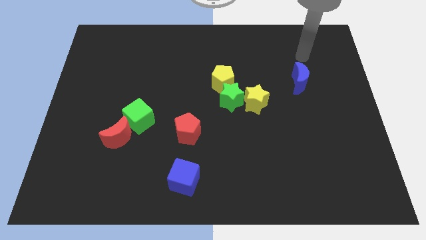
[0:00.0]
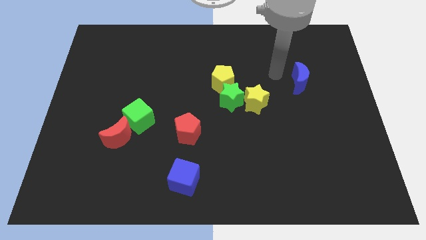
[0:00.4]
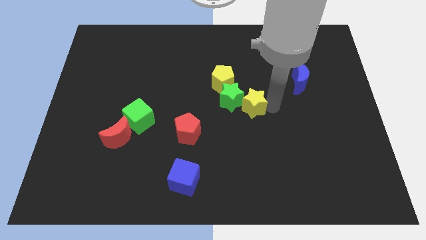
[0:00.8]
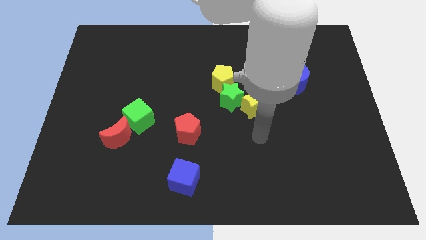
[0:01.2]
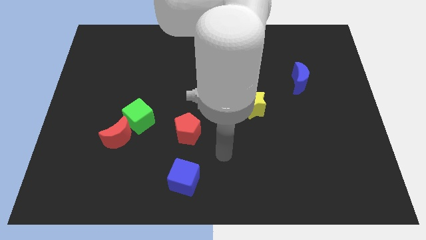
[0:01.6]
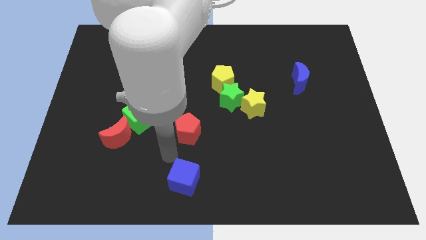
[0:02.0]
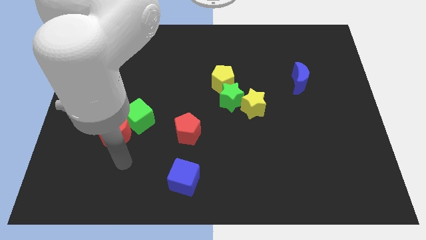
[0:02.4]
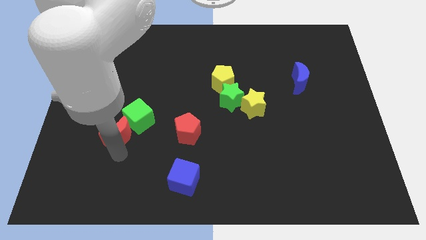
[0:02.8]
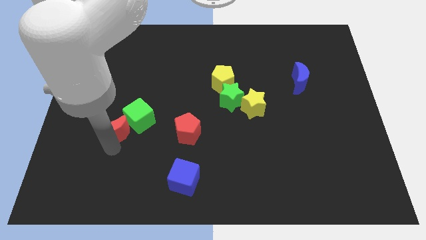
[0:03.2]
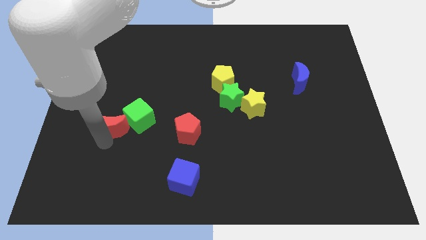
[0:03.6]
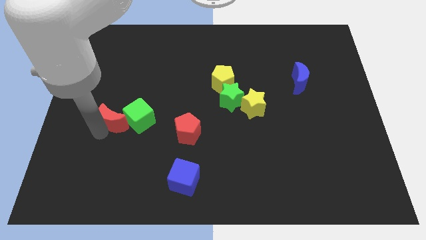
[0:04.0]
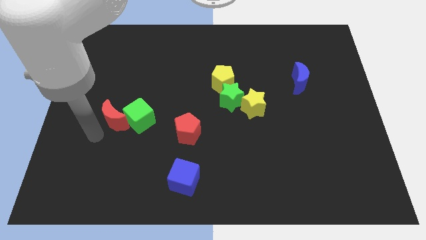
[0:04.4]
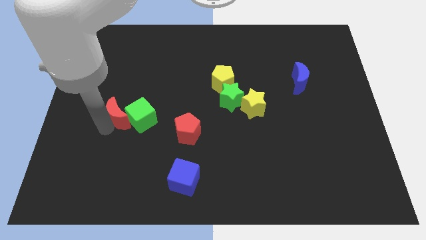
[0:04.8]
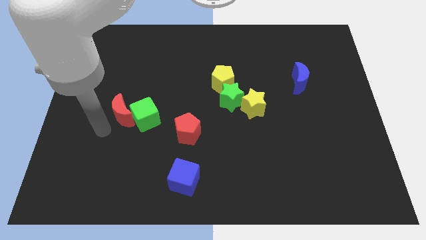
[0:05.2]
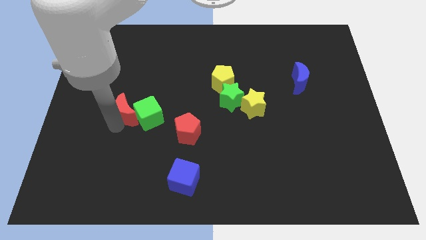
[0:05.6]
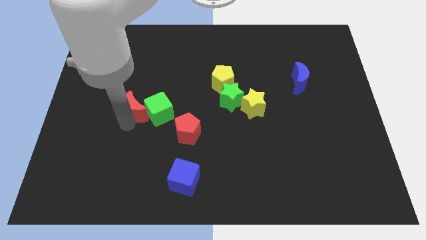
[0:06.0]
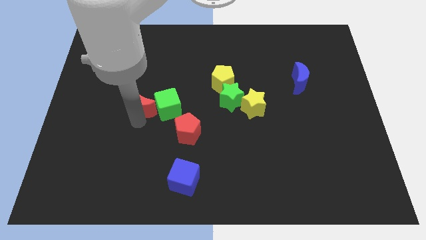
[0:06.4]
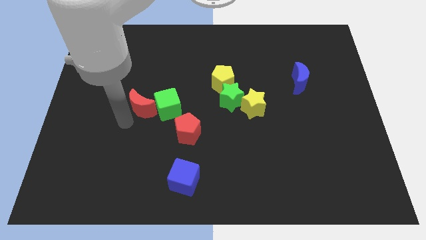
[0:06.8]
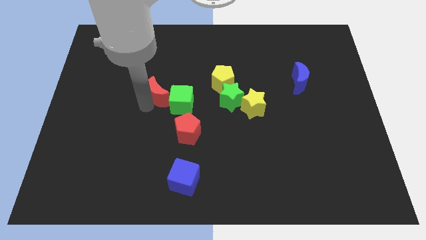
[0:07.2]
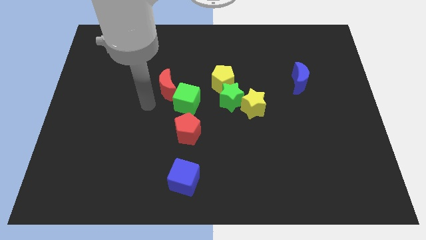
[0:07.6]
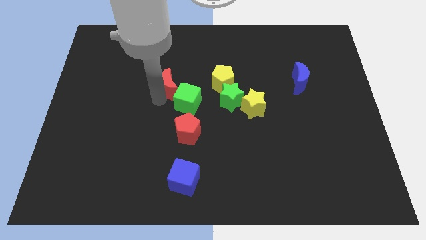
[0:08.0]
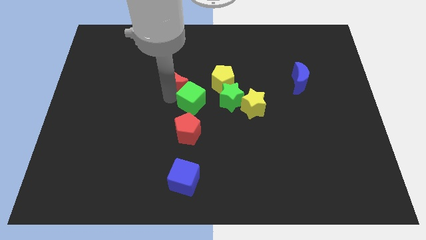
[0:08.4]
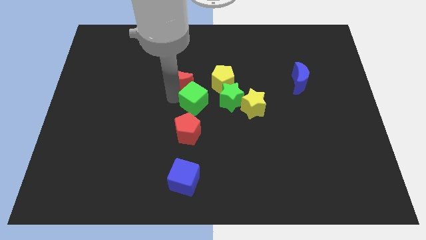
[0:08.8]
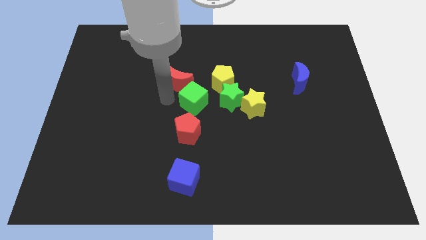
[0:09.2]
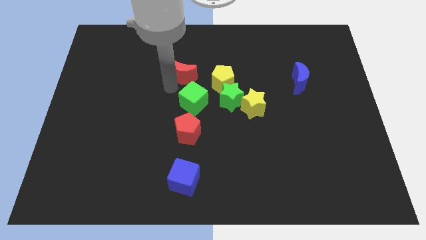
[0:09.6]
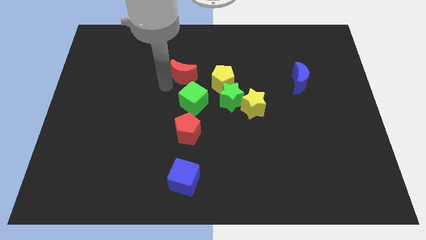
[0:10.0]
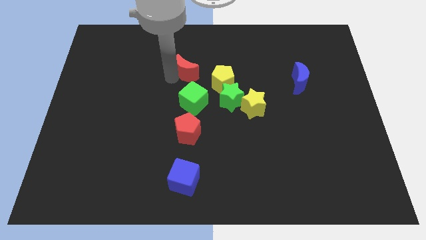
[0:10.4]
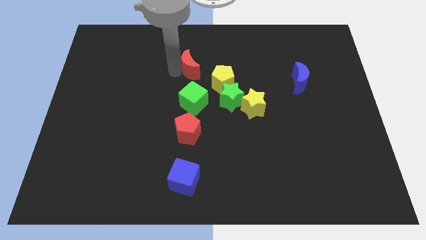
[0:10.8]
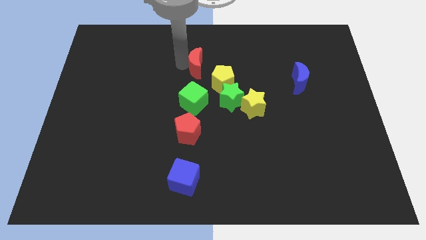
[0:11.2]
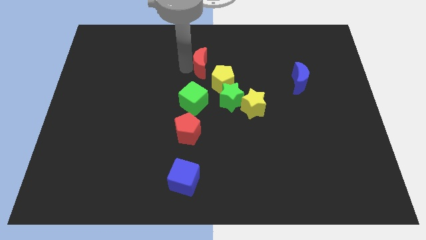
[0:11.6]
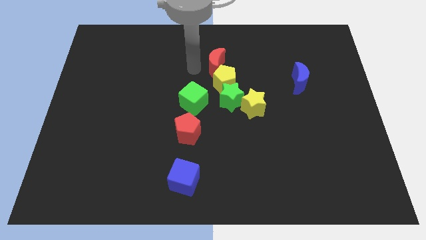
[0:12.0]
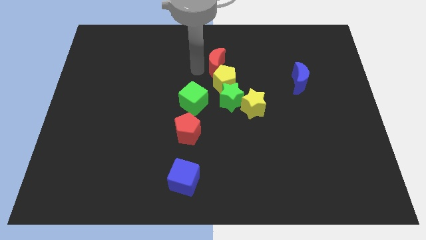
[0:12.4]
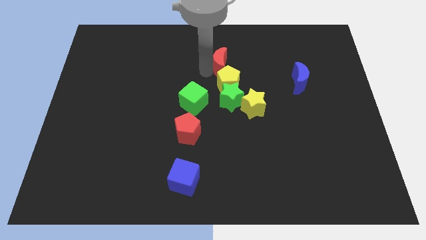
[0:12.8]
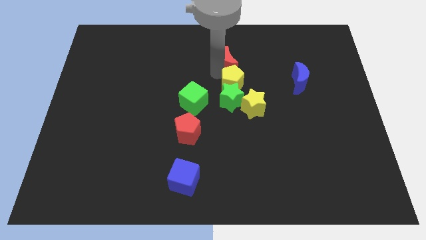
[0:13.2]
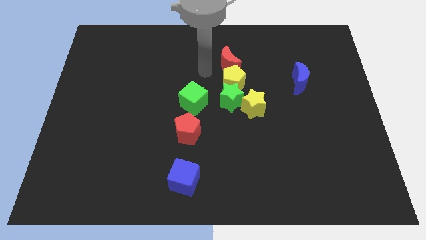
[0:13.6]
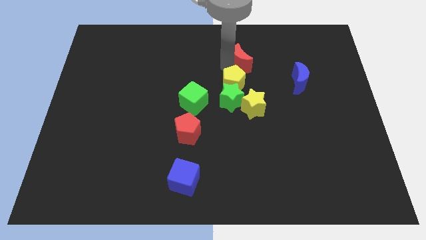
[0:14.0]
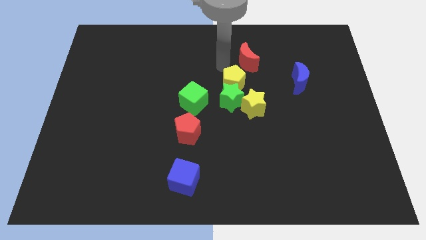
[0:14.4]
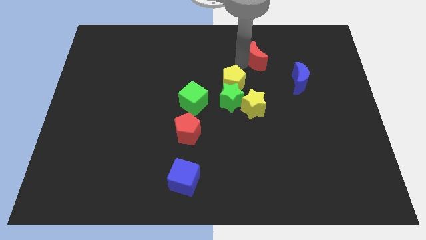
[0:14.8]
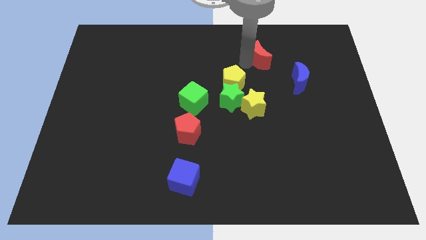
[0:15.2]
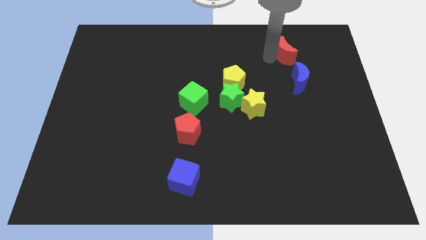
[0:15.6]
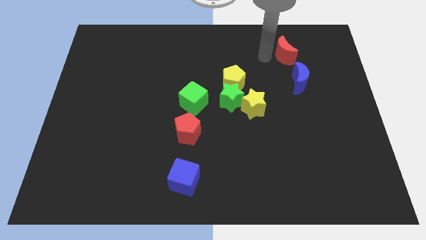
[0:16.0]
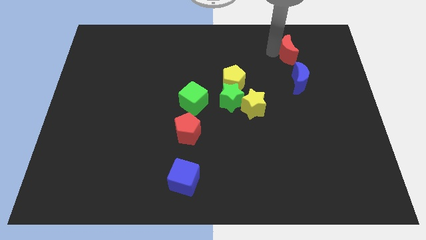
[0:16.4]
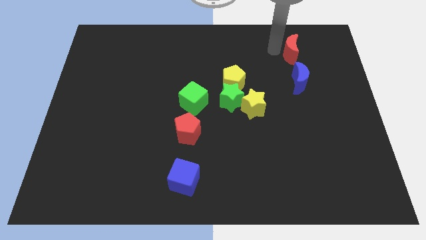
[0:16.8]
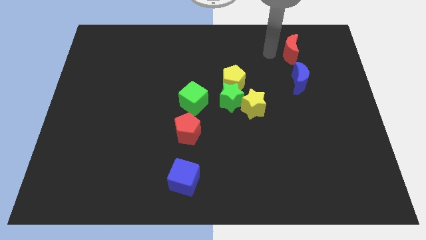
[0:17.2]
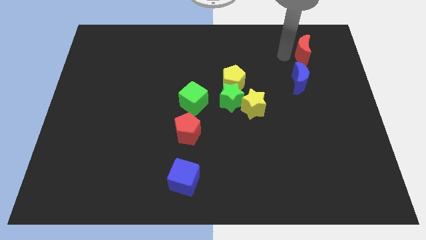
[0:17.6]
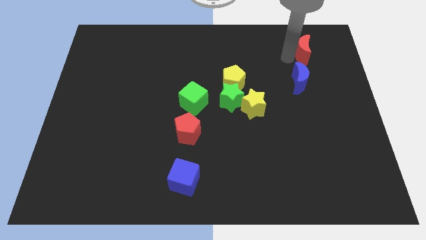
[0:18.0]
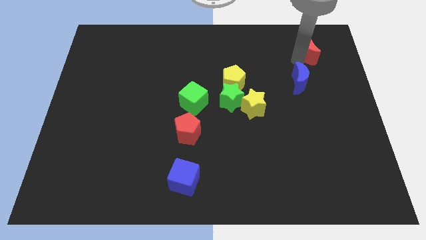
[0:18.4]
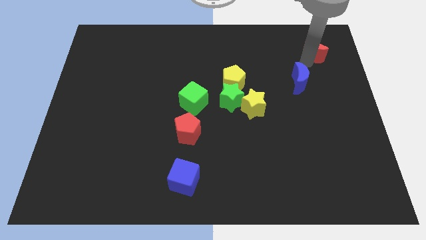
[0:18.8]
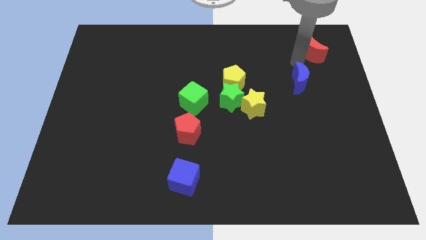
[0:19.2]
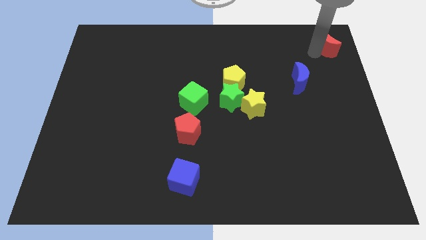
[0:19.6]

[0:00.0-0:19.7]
push the red moon to the top right of the board

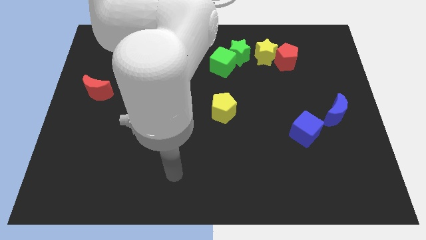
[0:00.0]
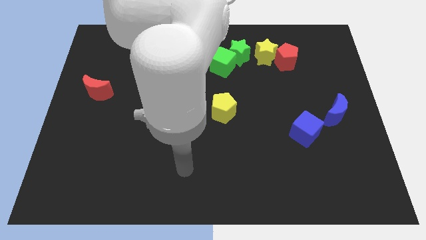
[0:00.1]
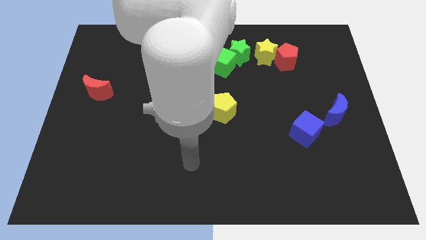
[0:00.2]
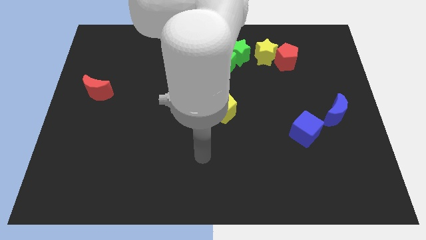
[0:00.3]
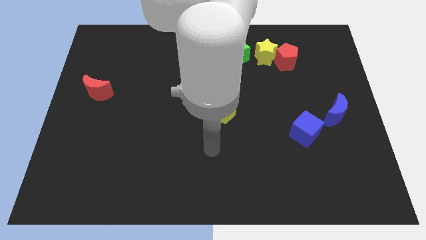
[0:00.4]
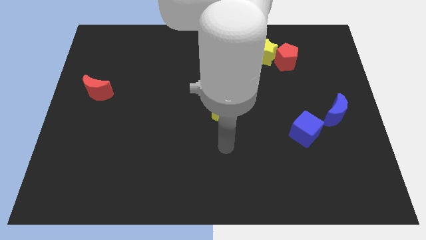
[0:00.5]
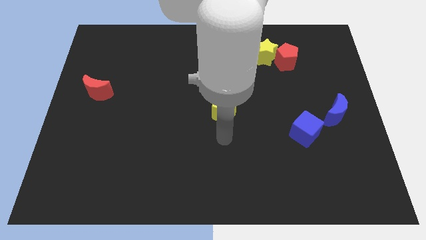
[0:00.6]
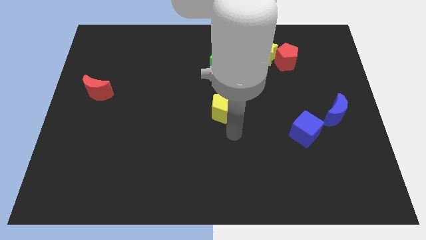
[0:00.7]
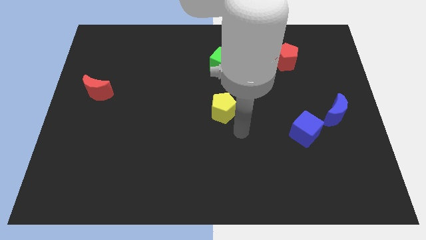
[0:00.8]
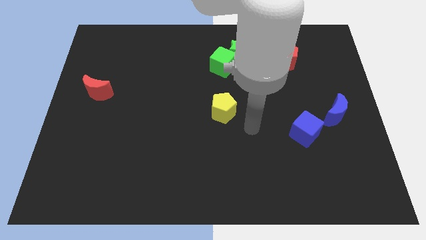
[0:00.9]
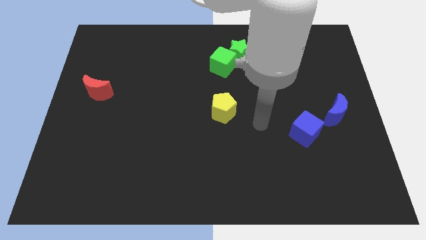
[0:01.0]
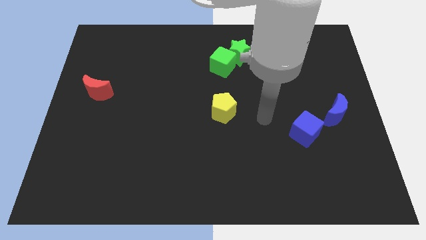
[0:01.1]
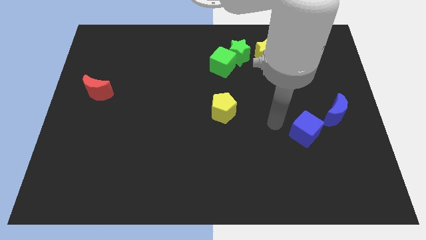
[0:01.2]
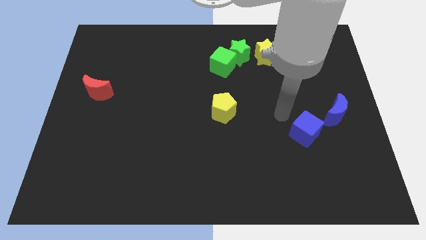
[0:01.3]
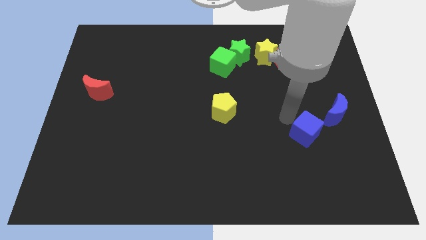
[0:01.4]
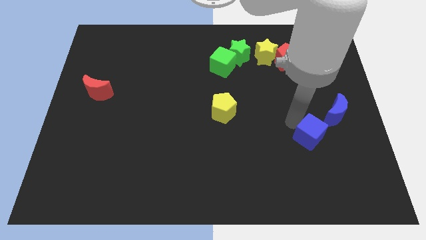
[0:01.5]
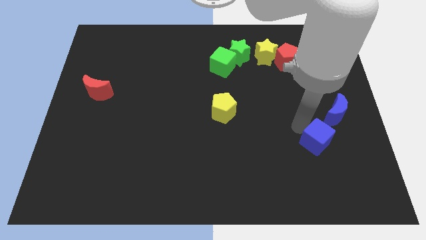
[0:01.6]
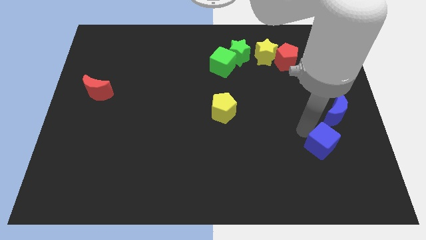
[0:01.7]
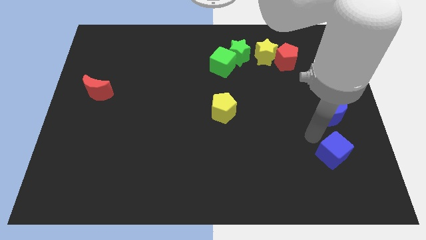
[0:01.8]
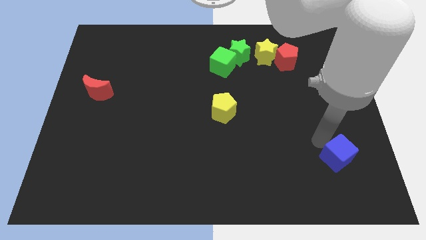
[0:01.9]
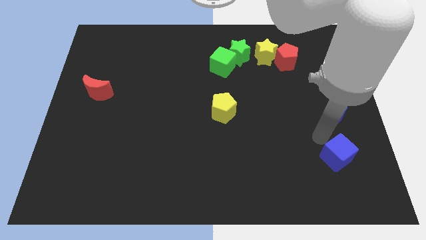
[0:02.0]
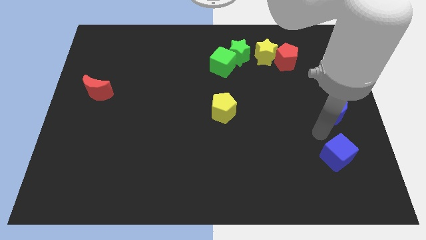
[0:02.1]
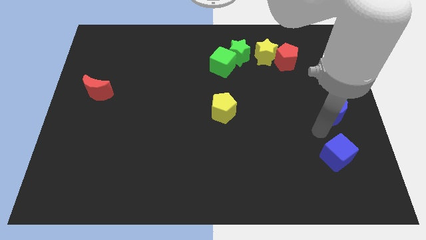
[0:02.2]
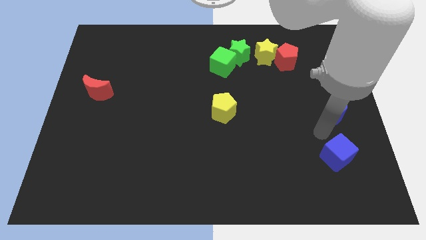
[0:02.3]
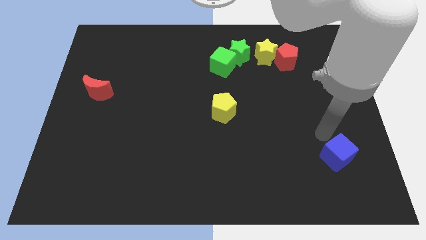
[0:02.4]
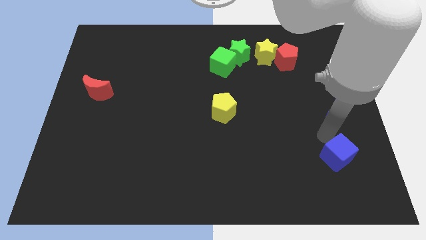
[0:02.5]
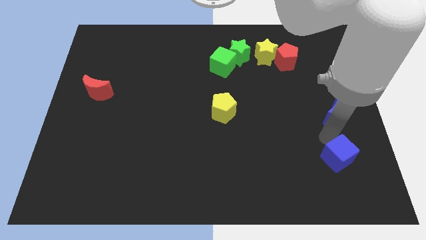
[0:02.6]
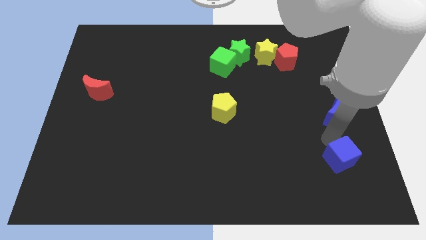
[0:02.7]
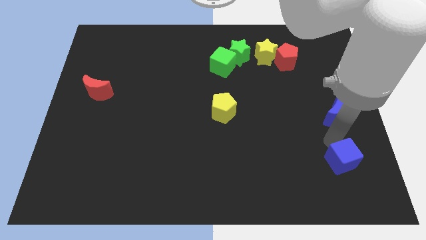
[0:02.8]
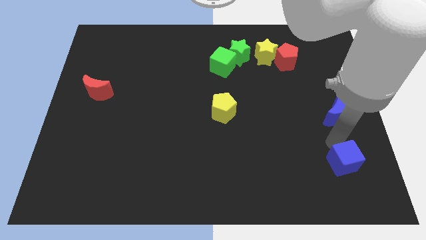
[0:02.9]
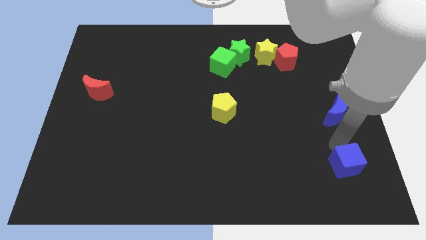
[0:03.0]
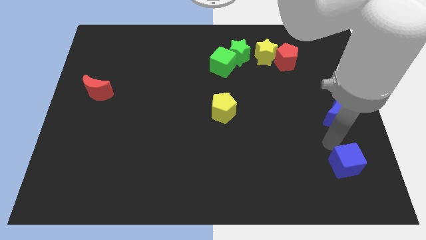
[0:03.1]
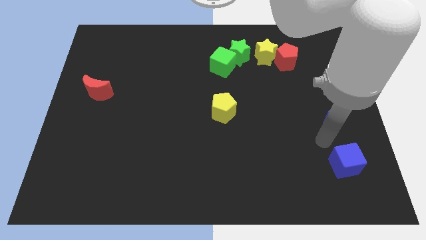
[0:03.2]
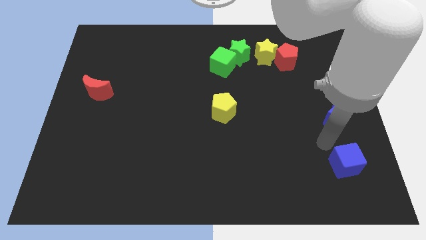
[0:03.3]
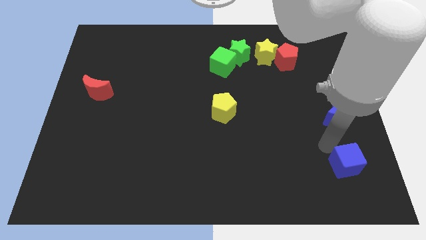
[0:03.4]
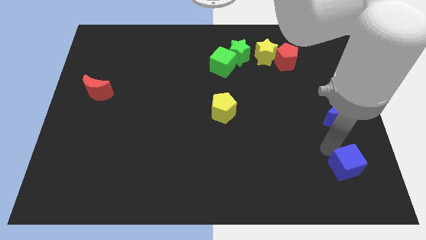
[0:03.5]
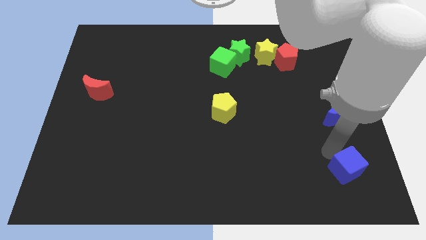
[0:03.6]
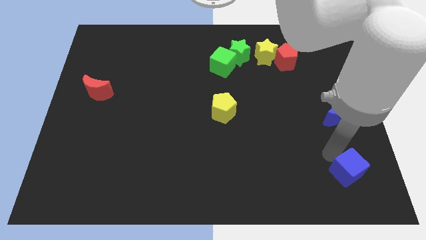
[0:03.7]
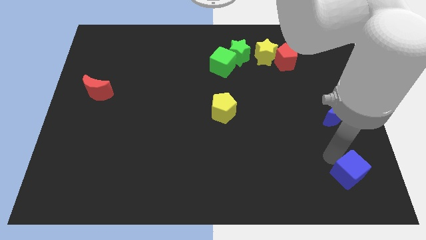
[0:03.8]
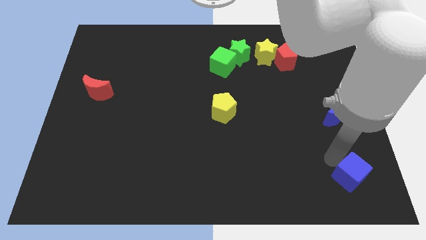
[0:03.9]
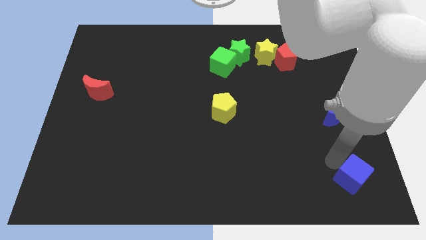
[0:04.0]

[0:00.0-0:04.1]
move the blue cube to the bottom right corner
